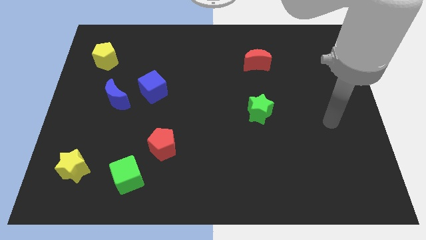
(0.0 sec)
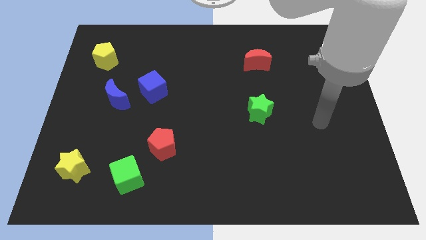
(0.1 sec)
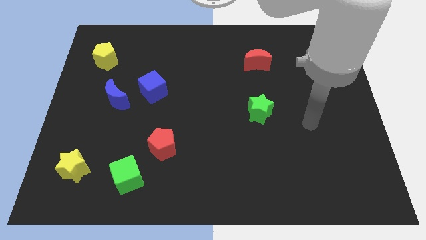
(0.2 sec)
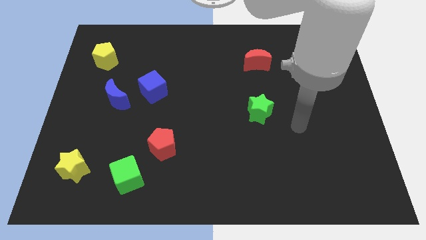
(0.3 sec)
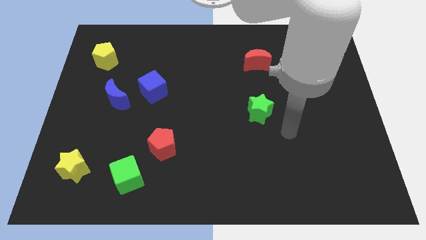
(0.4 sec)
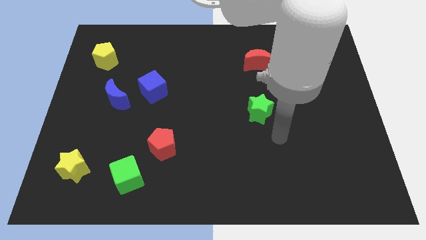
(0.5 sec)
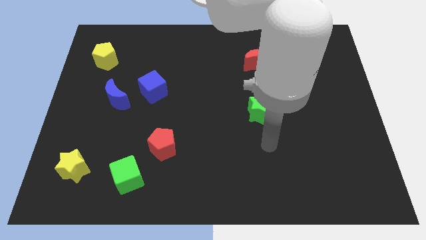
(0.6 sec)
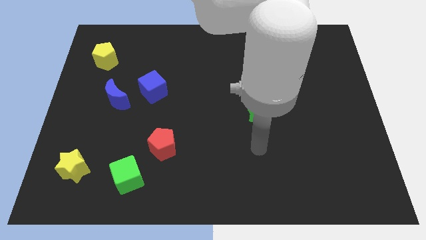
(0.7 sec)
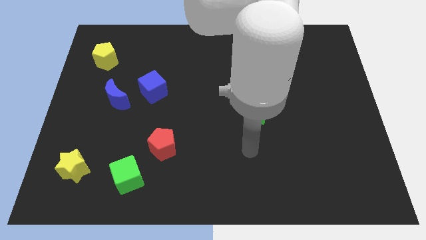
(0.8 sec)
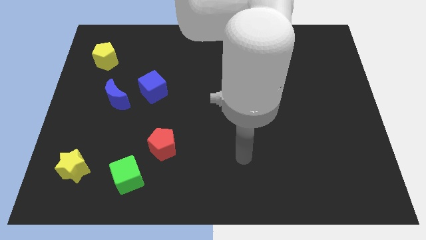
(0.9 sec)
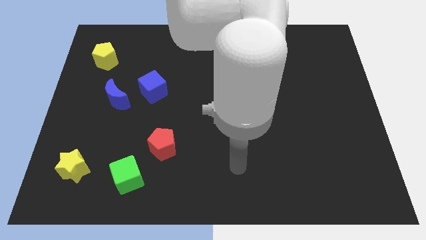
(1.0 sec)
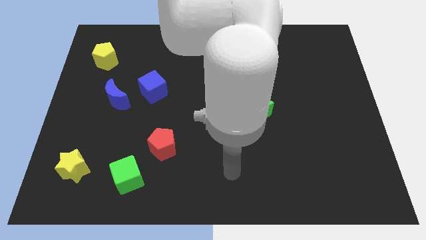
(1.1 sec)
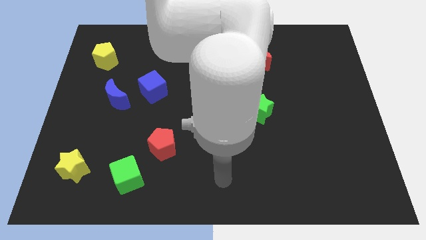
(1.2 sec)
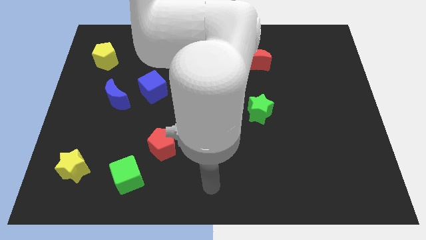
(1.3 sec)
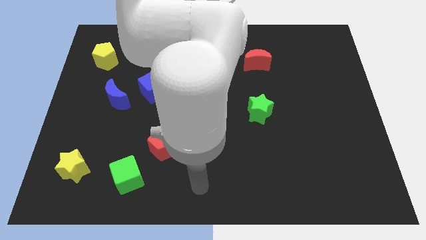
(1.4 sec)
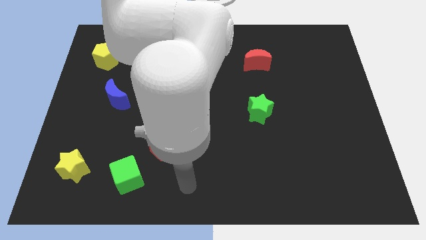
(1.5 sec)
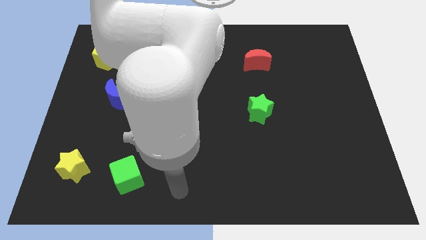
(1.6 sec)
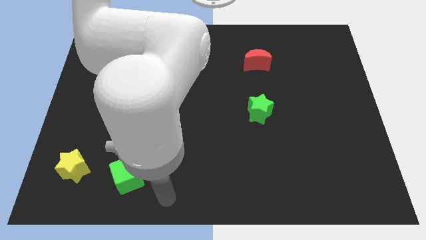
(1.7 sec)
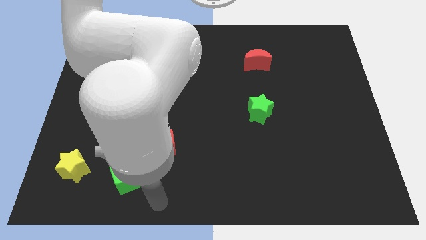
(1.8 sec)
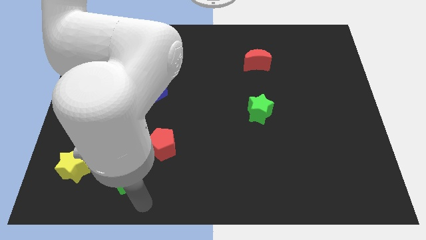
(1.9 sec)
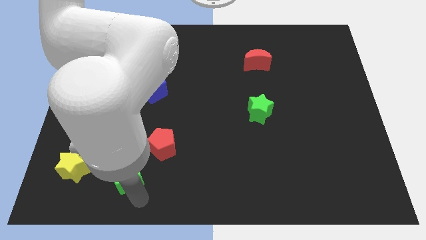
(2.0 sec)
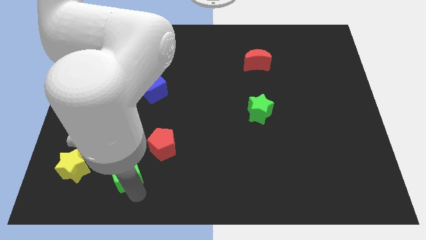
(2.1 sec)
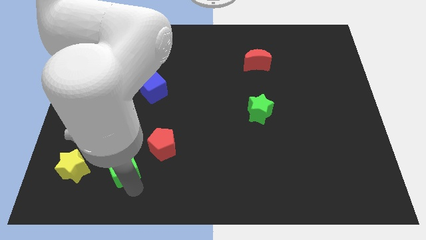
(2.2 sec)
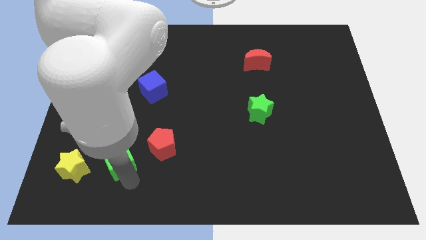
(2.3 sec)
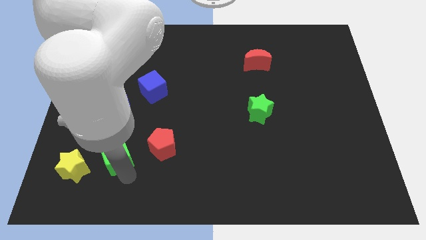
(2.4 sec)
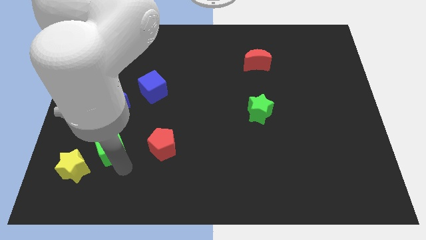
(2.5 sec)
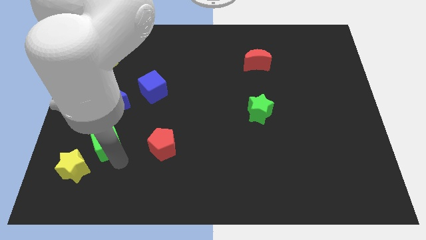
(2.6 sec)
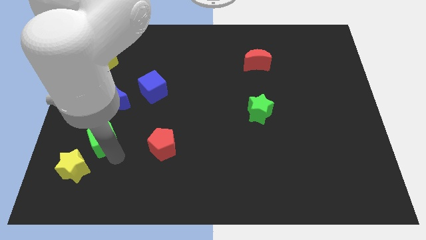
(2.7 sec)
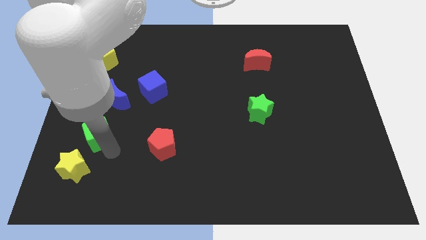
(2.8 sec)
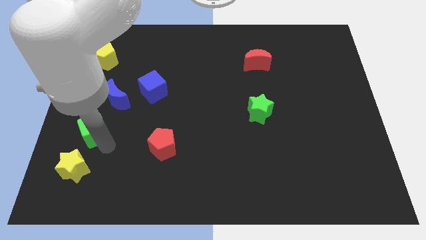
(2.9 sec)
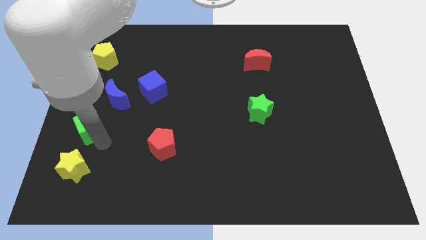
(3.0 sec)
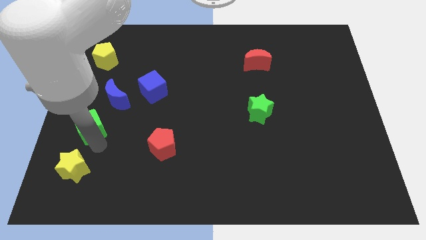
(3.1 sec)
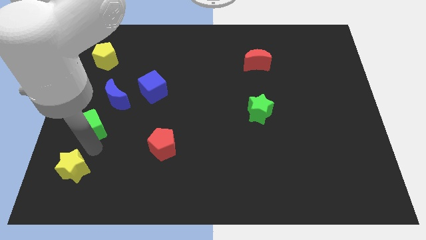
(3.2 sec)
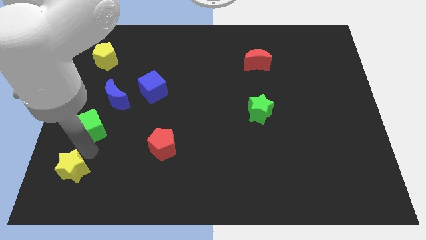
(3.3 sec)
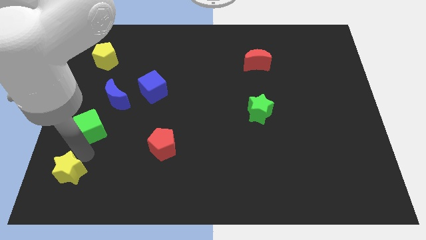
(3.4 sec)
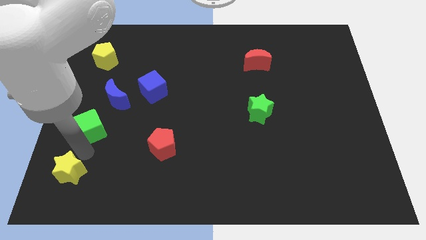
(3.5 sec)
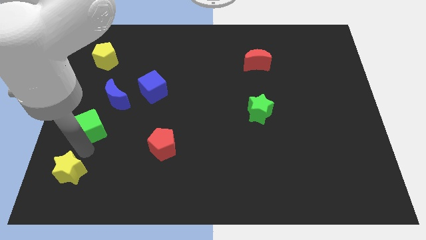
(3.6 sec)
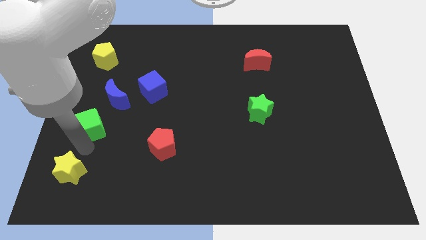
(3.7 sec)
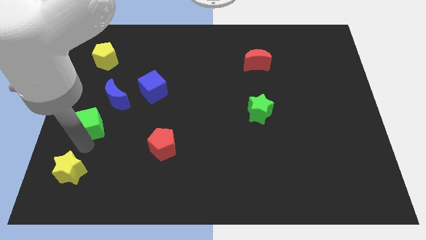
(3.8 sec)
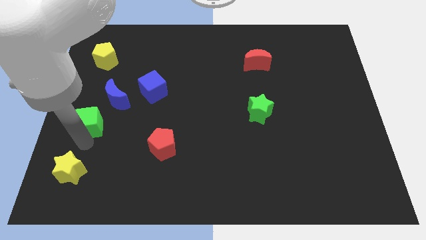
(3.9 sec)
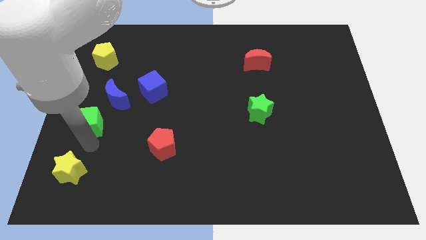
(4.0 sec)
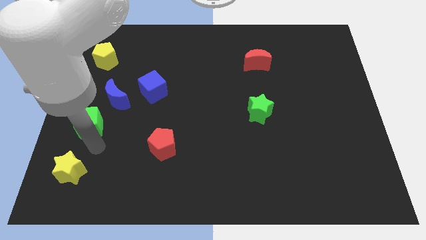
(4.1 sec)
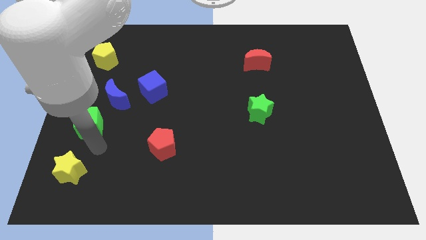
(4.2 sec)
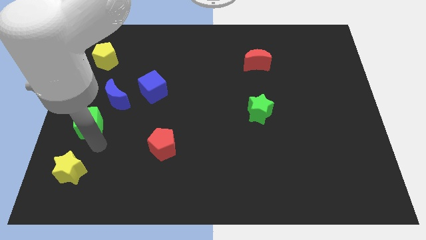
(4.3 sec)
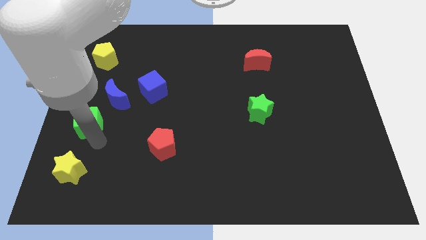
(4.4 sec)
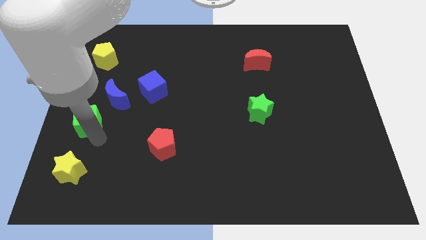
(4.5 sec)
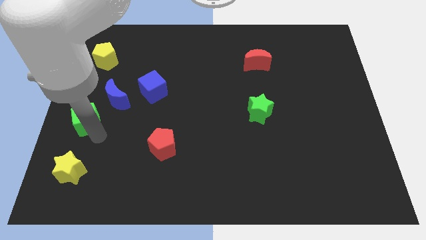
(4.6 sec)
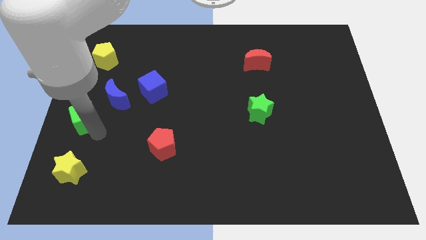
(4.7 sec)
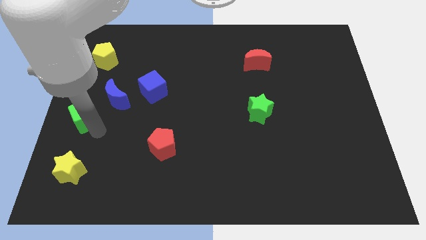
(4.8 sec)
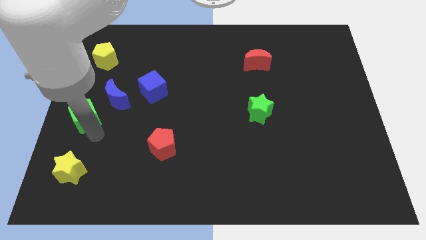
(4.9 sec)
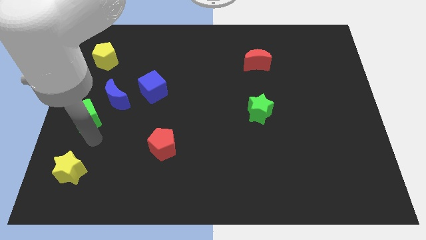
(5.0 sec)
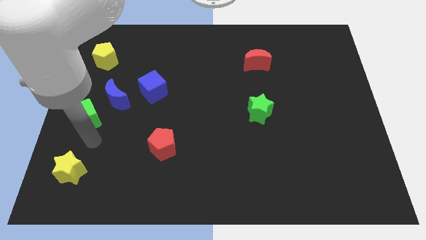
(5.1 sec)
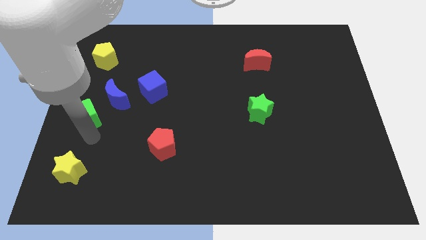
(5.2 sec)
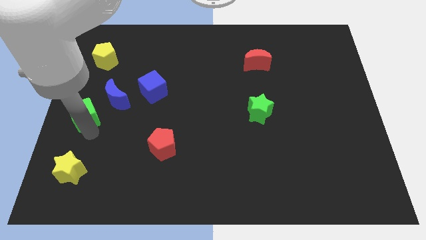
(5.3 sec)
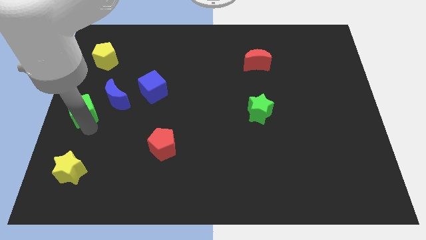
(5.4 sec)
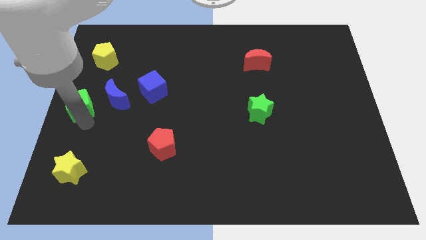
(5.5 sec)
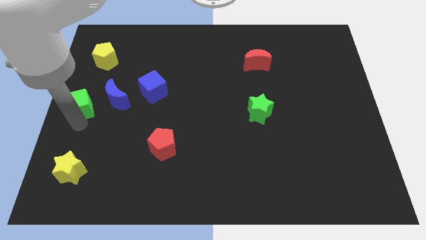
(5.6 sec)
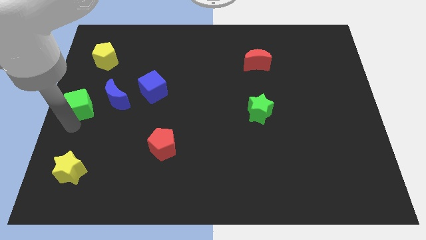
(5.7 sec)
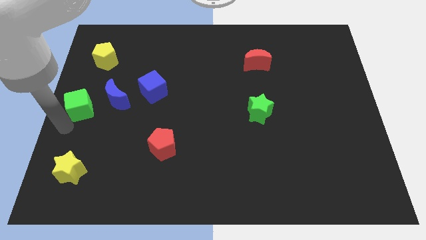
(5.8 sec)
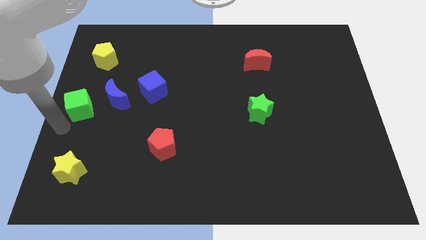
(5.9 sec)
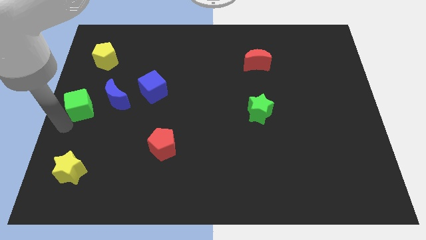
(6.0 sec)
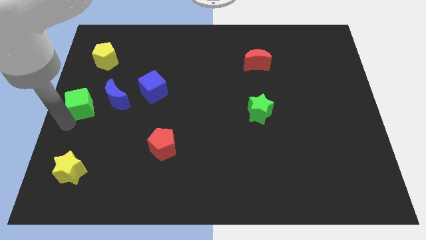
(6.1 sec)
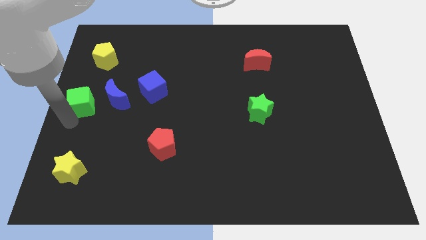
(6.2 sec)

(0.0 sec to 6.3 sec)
push the green cube to the bottom of the yellow pentagon
